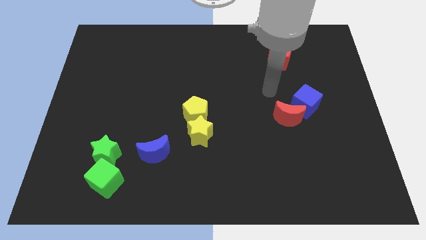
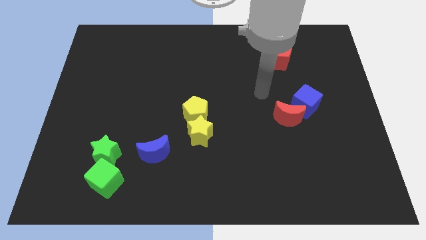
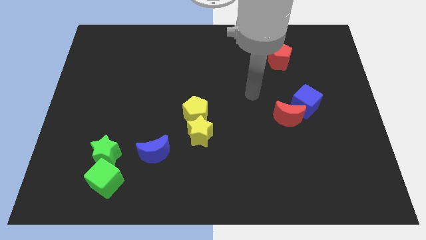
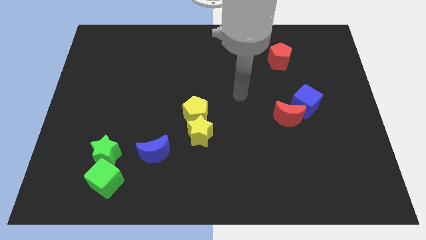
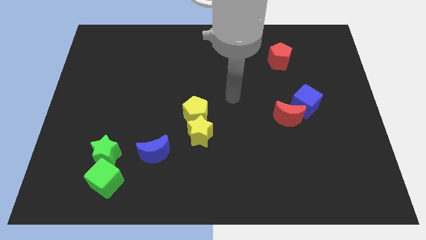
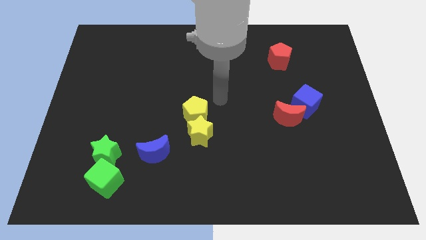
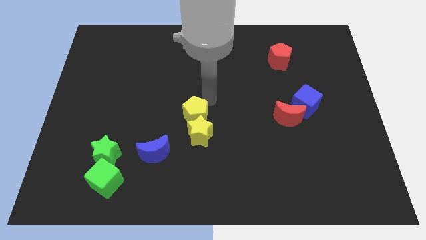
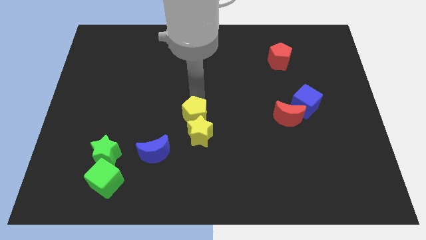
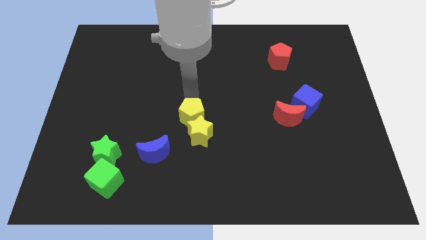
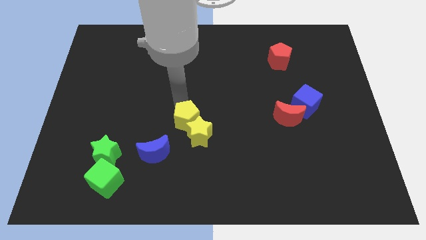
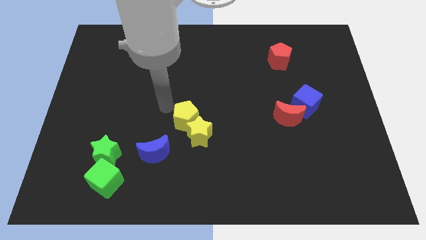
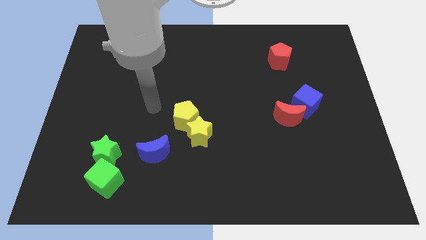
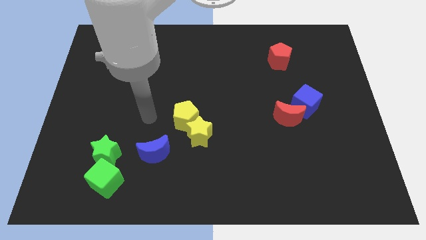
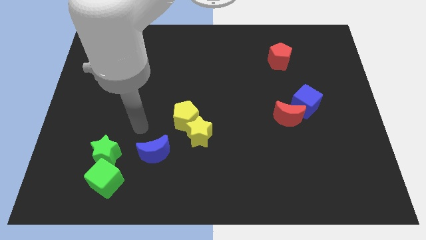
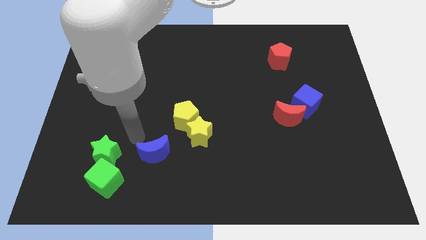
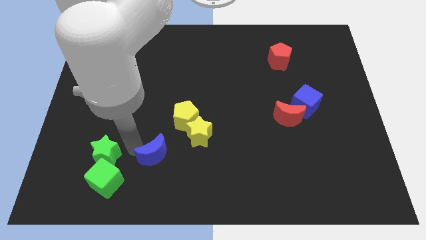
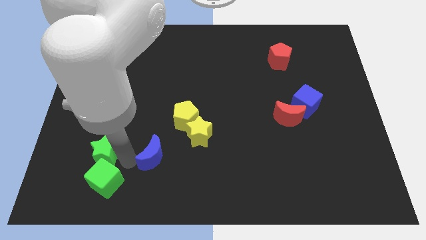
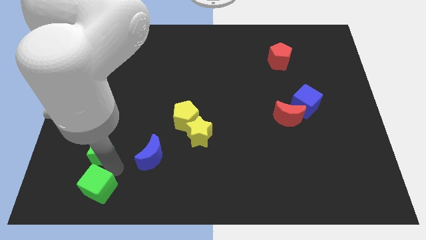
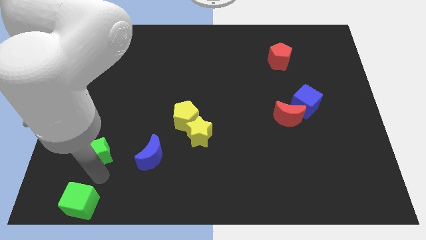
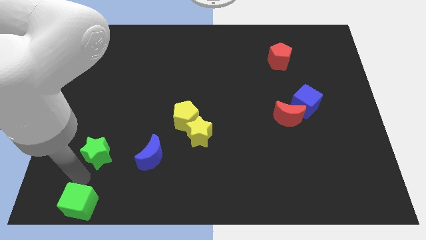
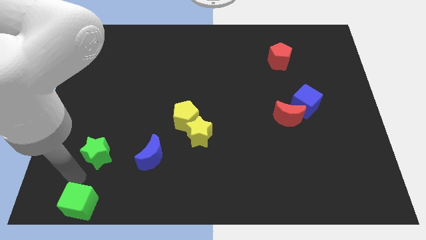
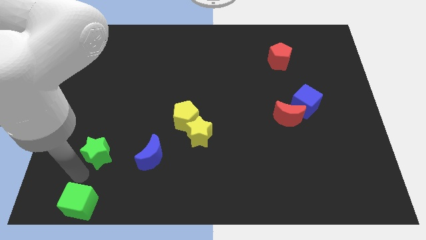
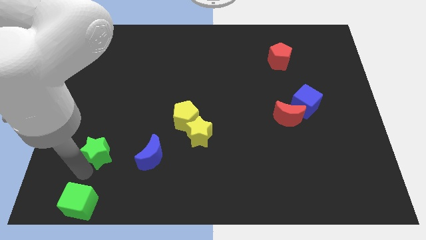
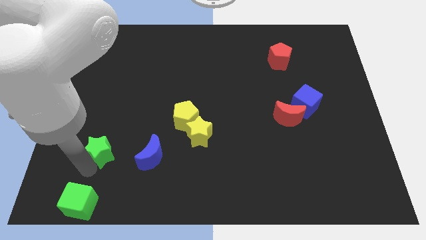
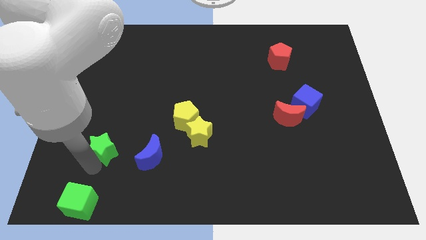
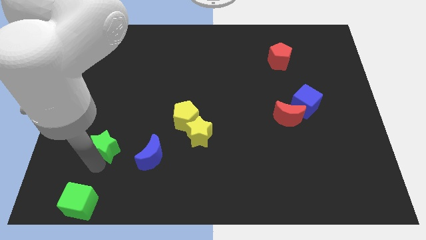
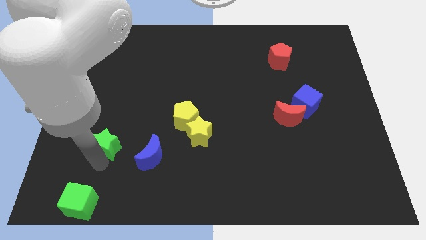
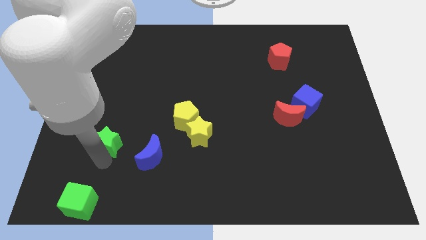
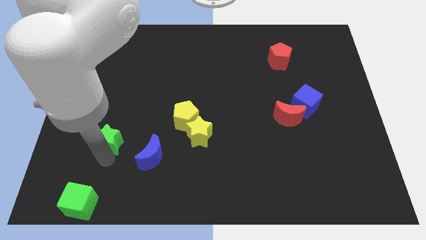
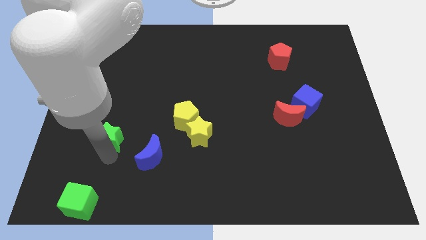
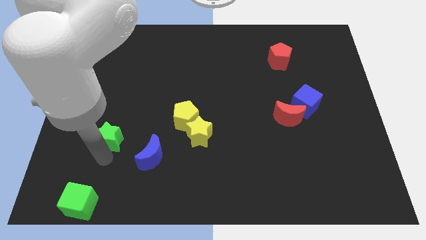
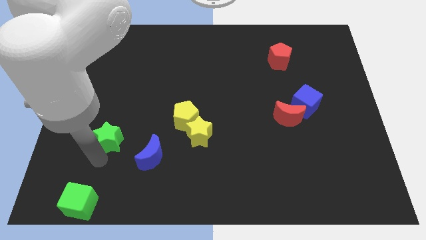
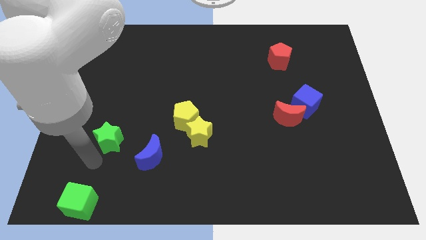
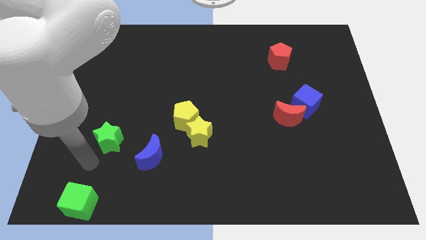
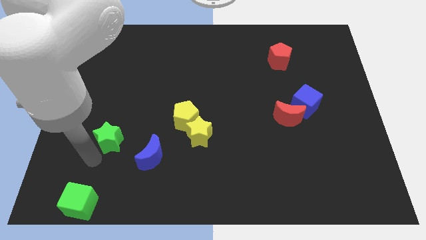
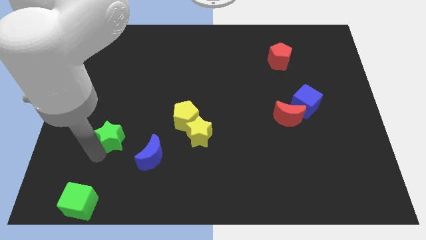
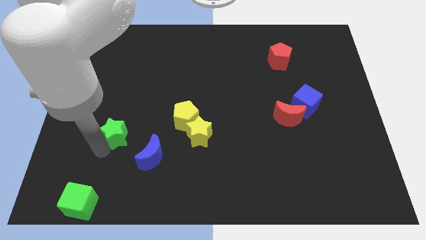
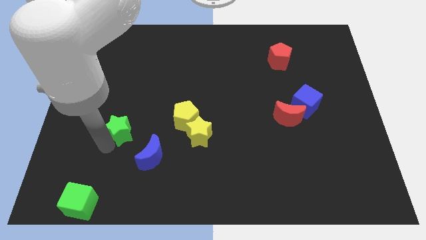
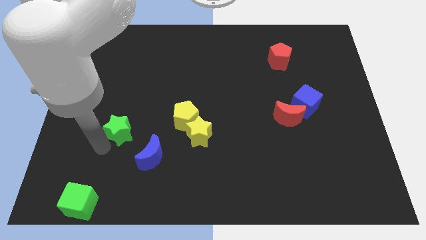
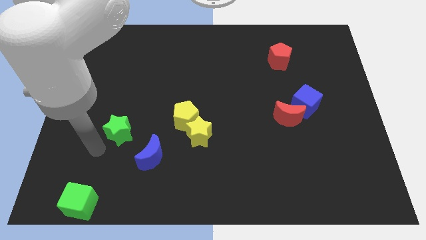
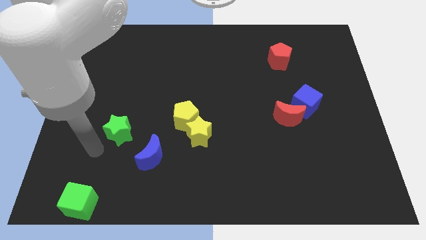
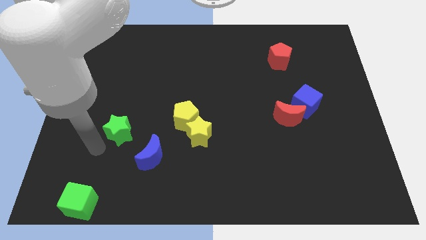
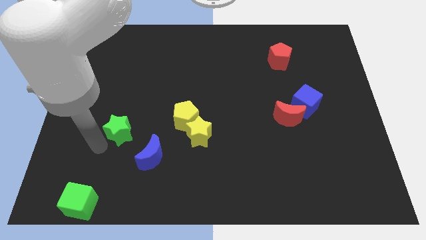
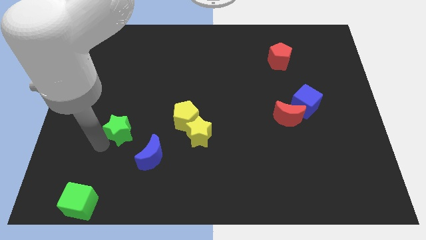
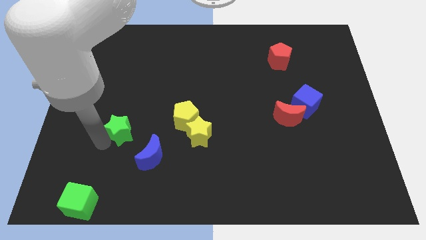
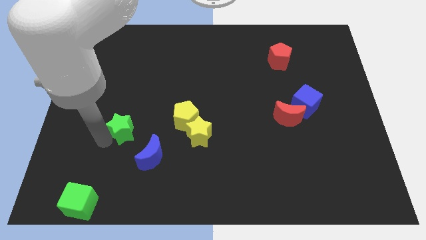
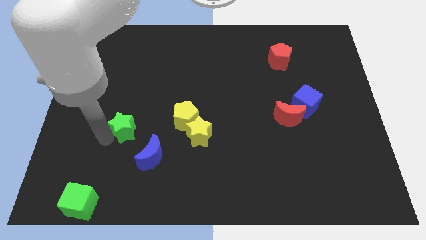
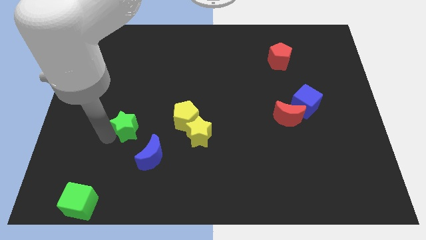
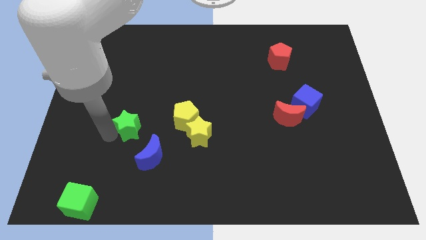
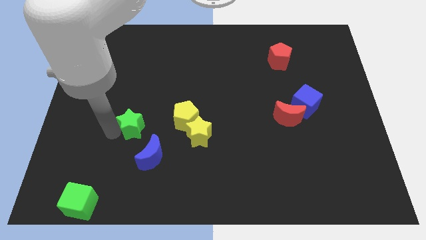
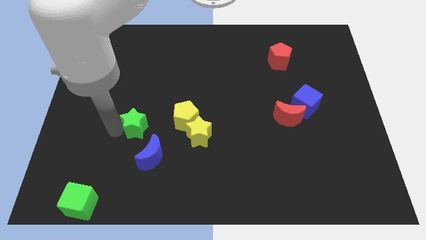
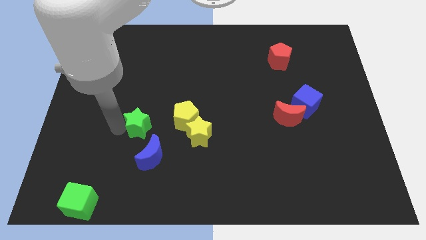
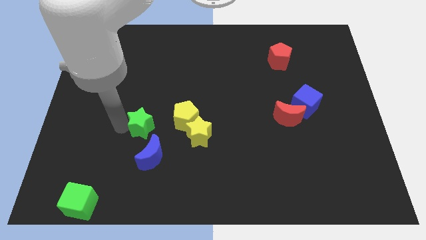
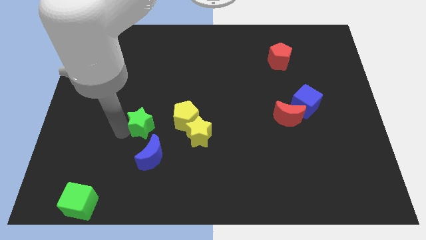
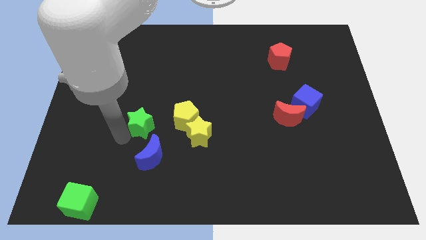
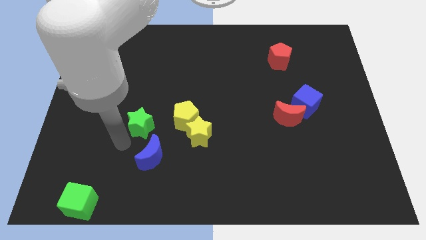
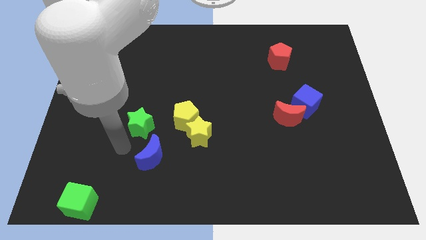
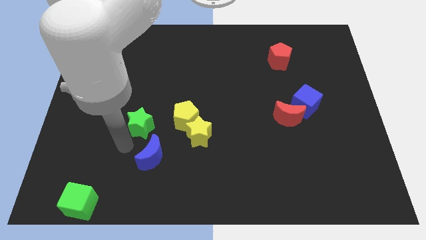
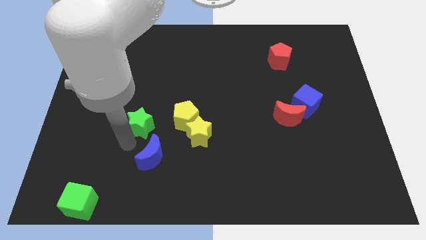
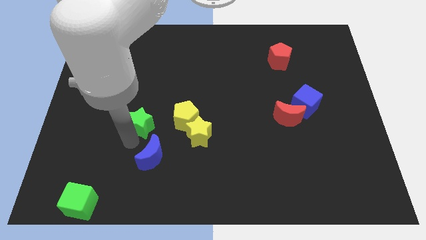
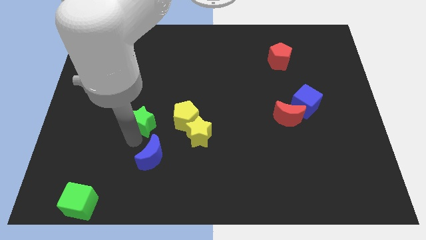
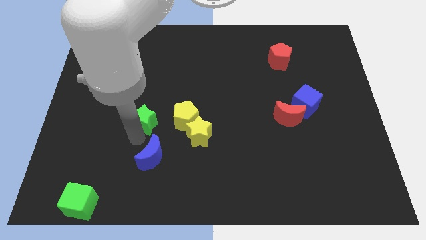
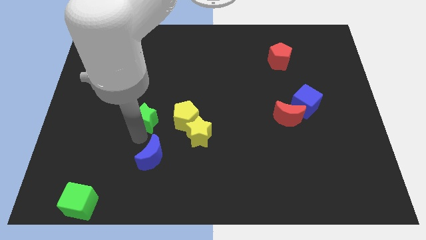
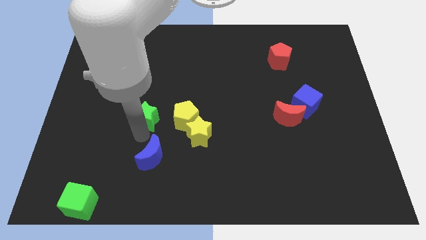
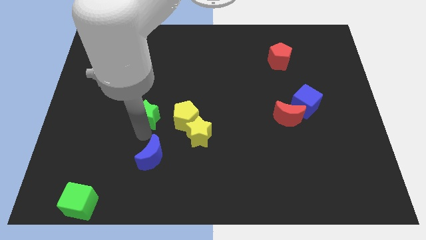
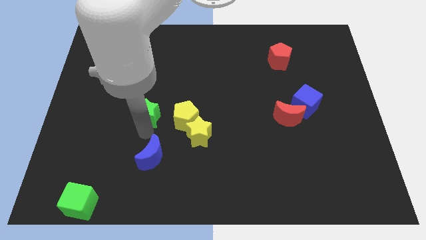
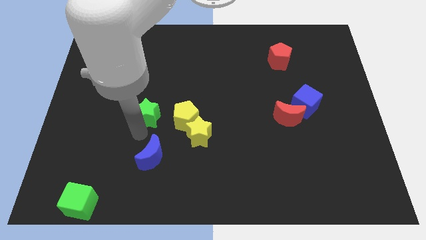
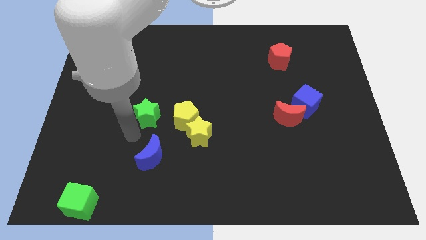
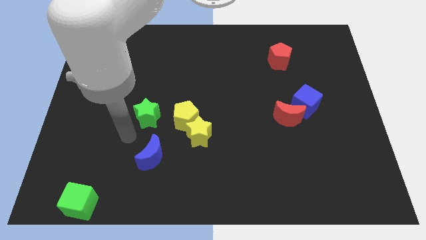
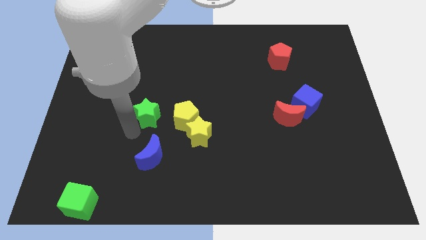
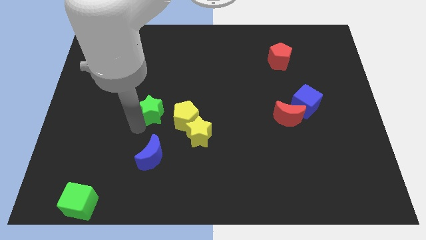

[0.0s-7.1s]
put the green star diagonally up and to the left of the yellow pentagon
